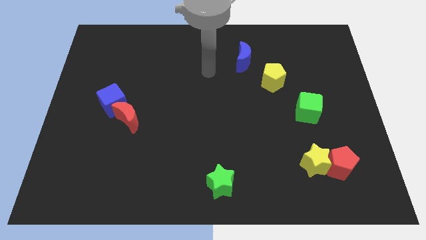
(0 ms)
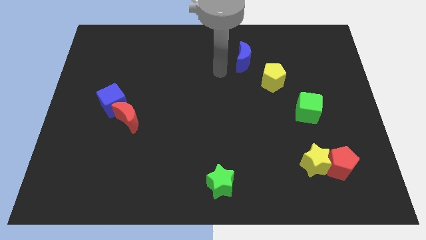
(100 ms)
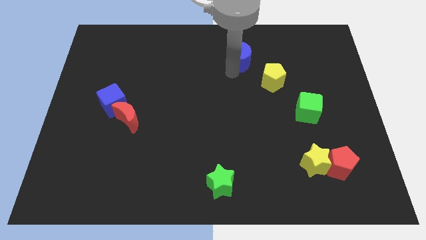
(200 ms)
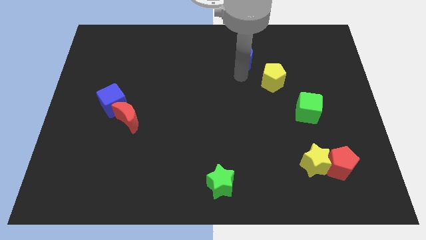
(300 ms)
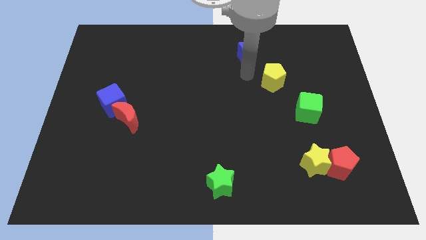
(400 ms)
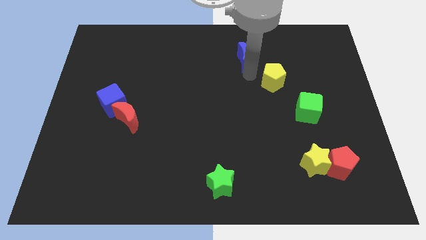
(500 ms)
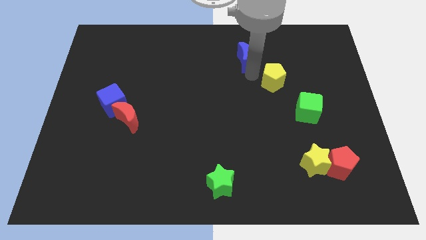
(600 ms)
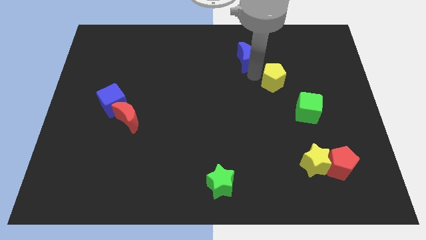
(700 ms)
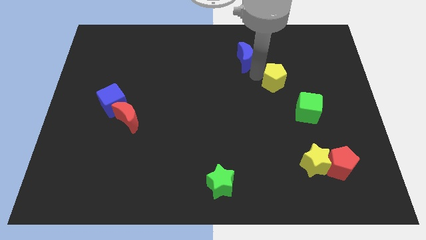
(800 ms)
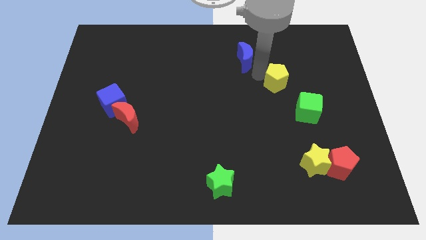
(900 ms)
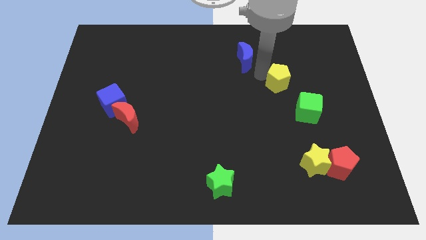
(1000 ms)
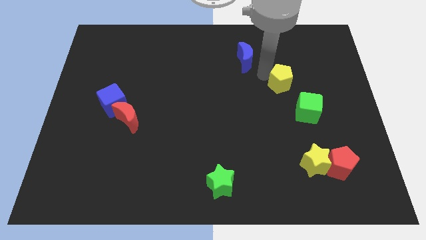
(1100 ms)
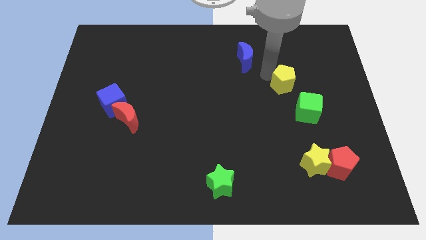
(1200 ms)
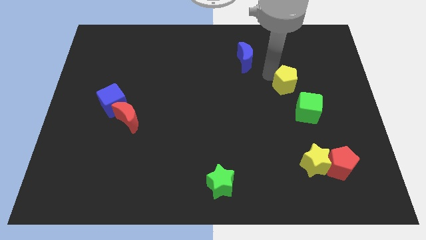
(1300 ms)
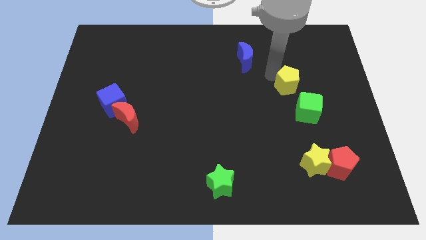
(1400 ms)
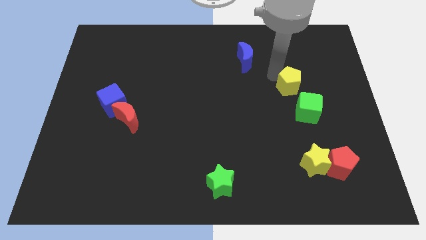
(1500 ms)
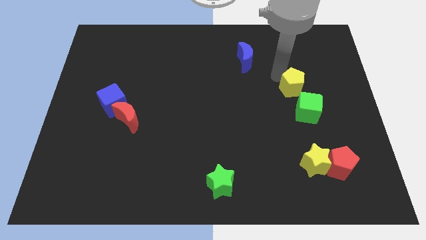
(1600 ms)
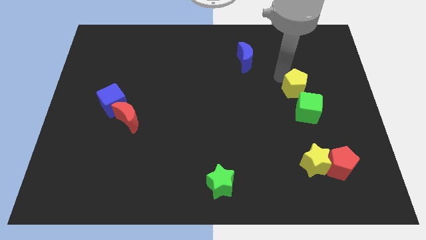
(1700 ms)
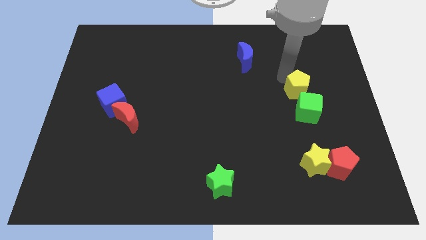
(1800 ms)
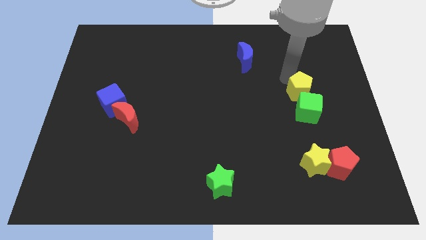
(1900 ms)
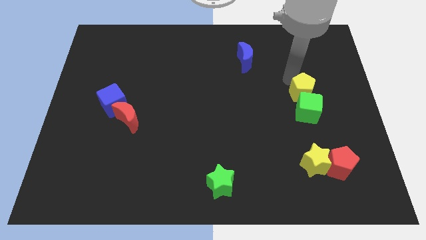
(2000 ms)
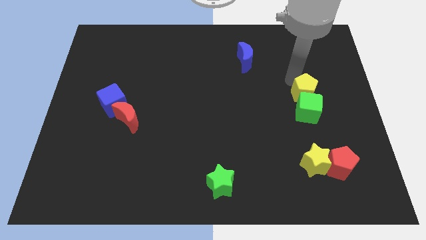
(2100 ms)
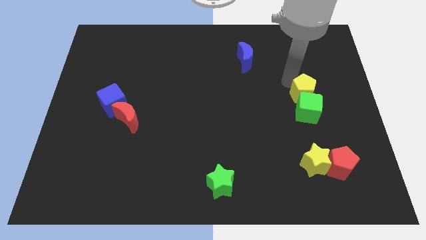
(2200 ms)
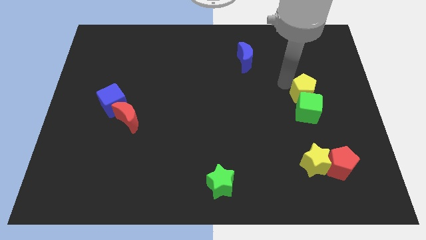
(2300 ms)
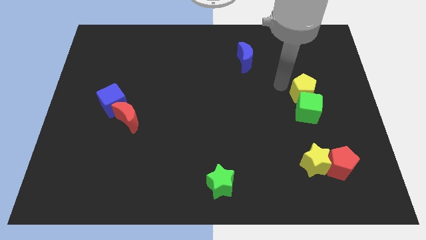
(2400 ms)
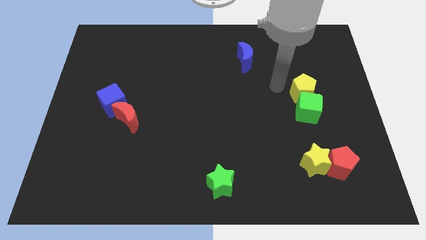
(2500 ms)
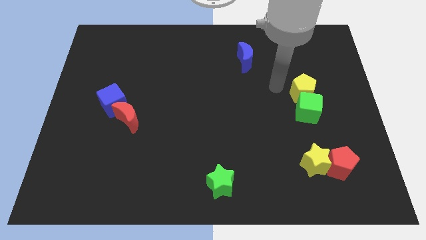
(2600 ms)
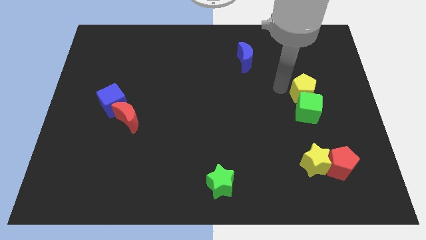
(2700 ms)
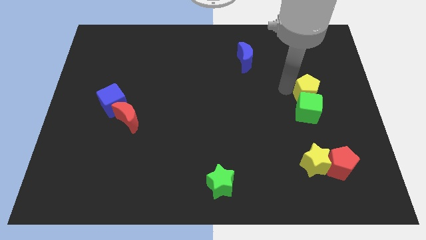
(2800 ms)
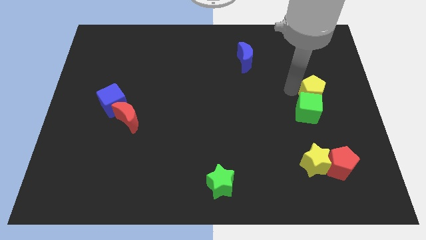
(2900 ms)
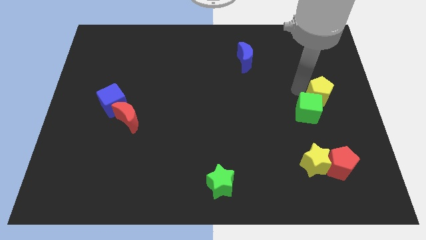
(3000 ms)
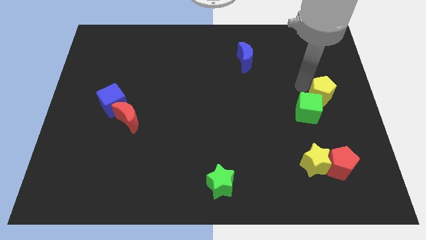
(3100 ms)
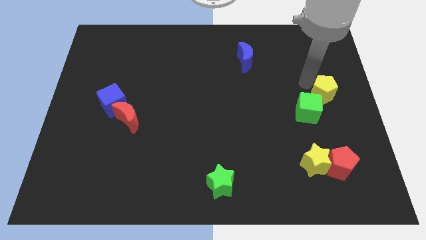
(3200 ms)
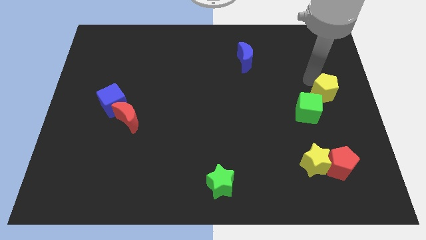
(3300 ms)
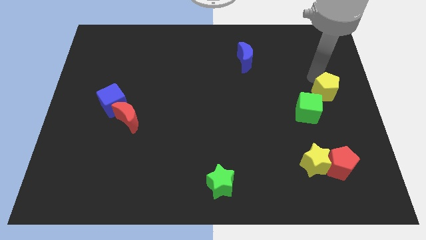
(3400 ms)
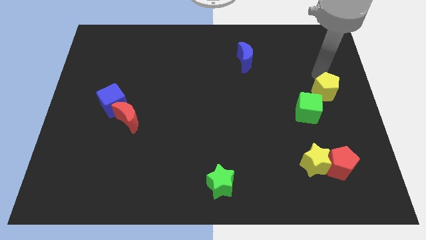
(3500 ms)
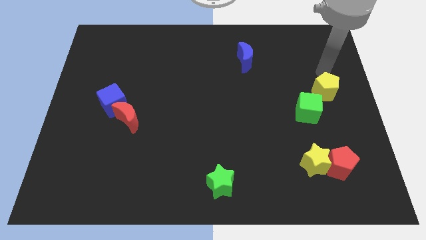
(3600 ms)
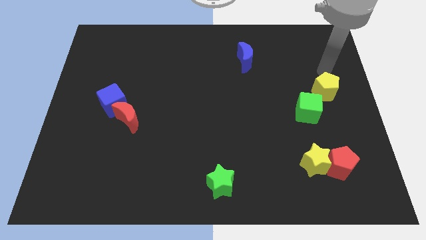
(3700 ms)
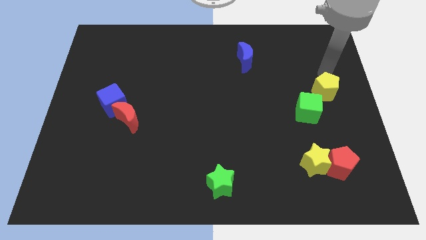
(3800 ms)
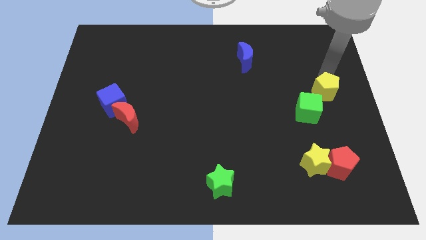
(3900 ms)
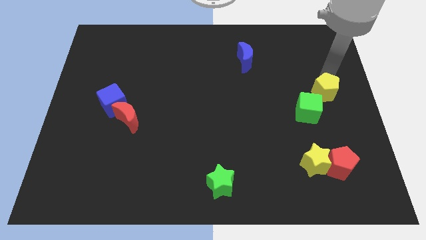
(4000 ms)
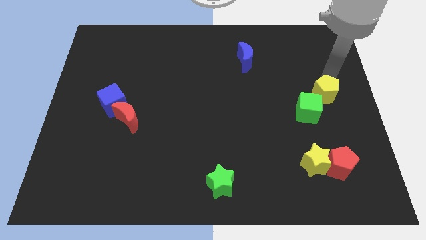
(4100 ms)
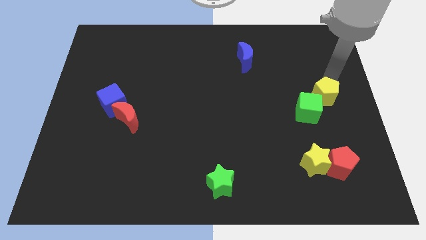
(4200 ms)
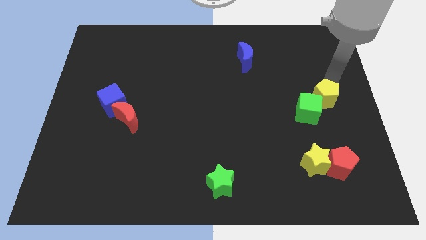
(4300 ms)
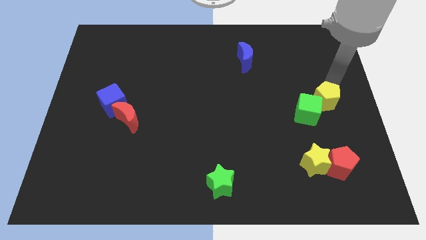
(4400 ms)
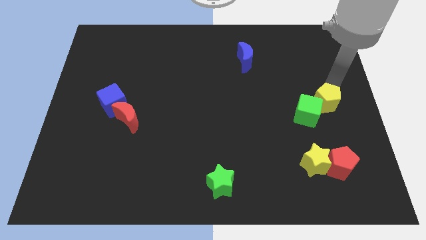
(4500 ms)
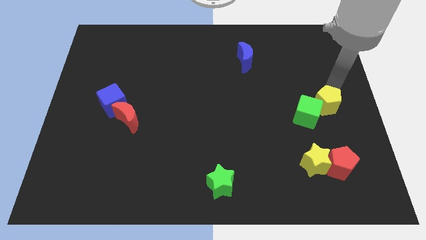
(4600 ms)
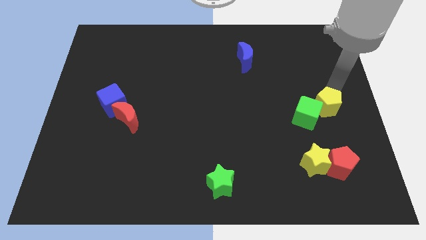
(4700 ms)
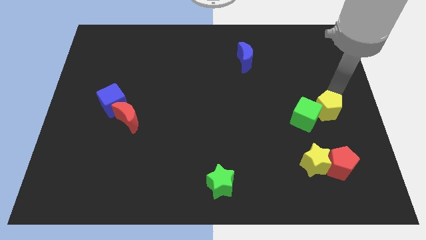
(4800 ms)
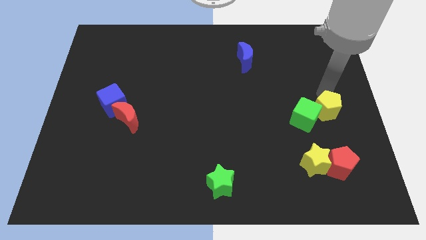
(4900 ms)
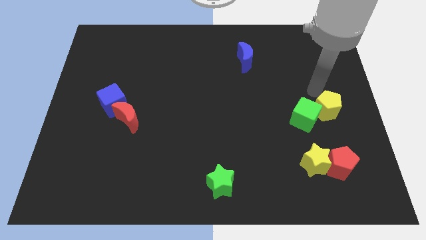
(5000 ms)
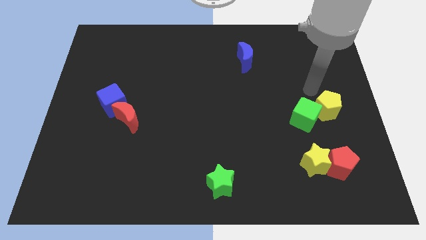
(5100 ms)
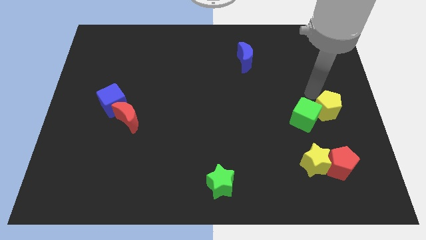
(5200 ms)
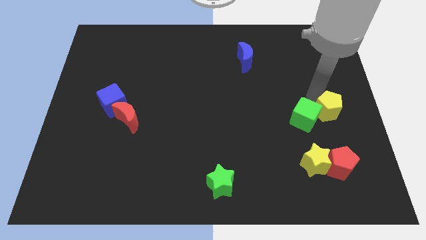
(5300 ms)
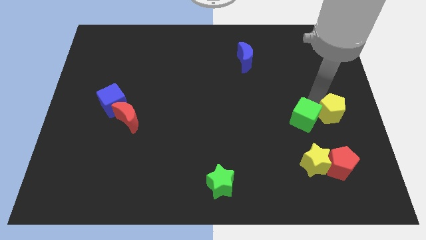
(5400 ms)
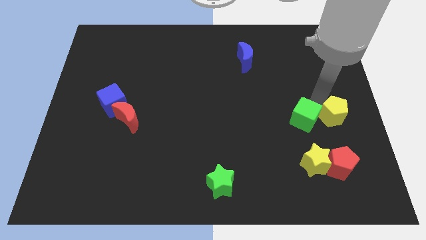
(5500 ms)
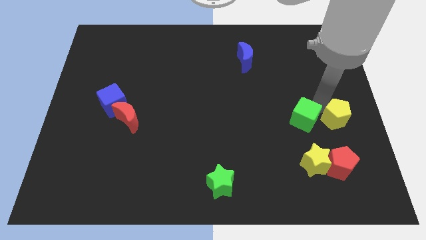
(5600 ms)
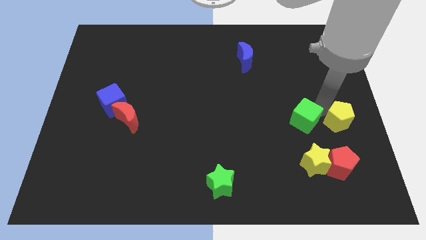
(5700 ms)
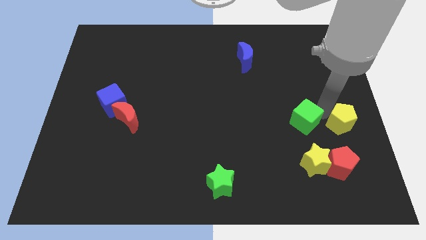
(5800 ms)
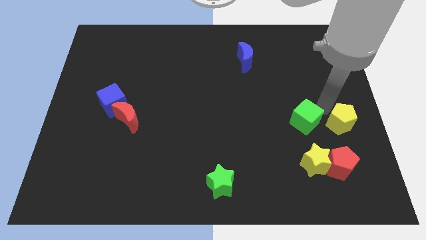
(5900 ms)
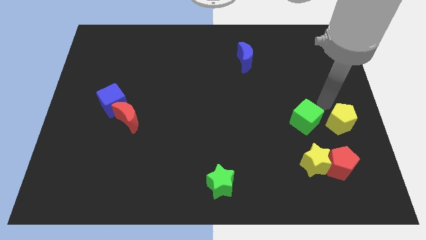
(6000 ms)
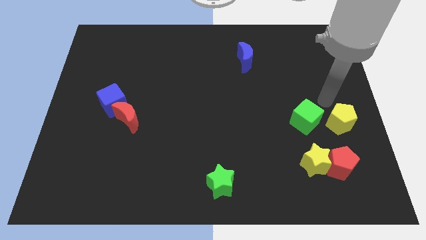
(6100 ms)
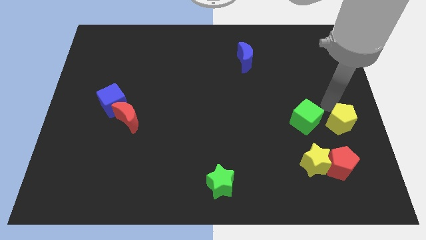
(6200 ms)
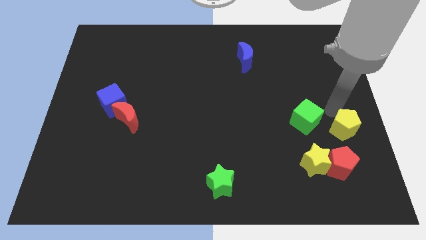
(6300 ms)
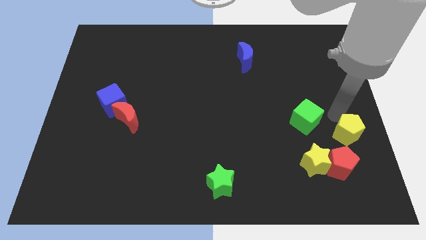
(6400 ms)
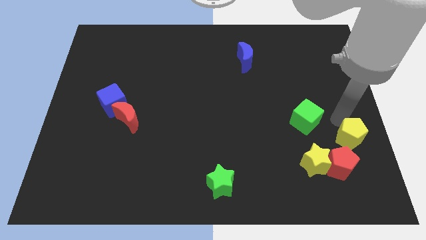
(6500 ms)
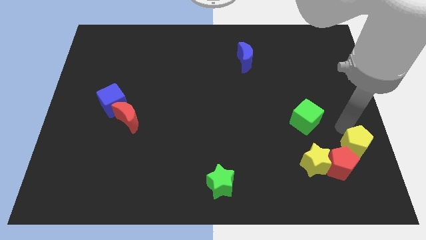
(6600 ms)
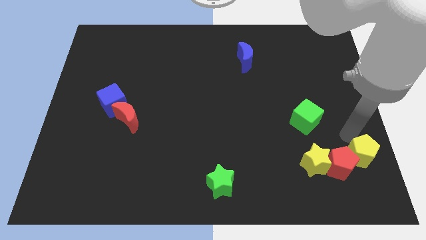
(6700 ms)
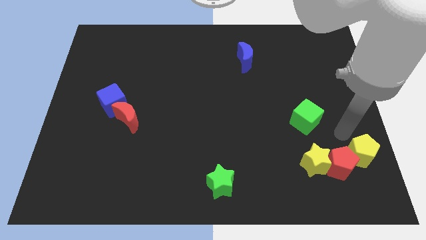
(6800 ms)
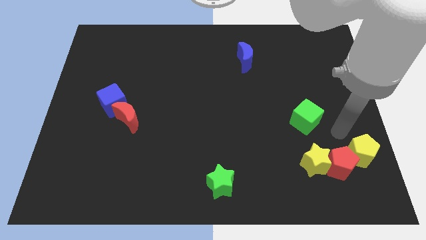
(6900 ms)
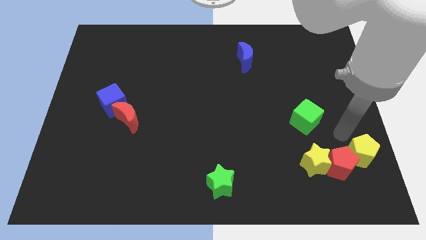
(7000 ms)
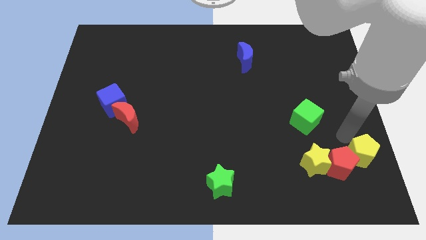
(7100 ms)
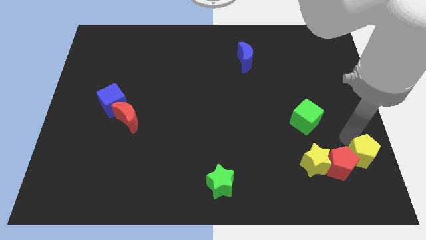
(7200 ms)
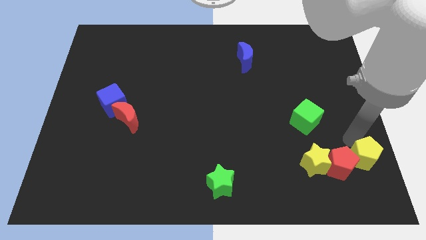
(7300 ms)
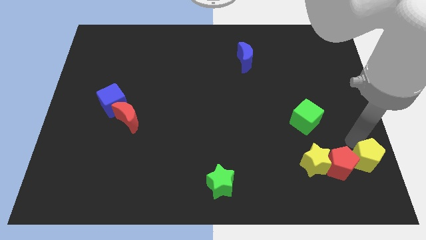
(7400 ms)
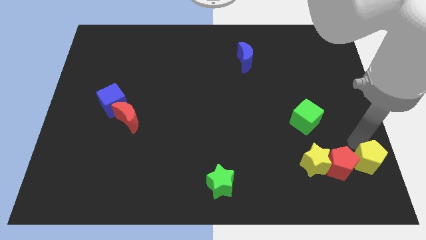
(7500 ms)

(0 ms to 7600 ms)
slide the yellow pentagon to the lower right corner

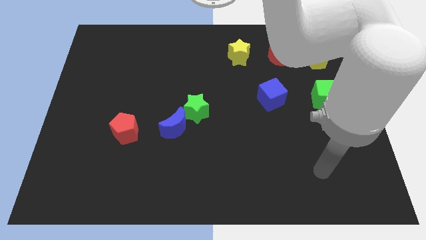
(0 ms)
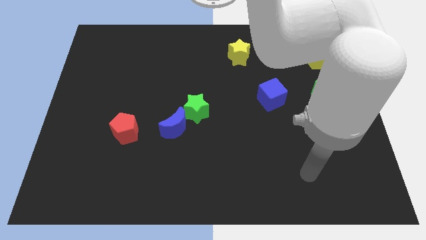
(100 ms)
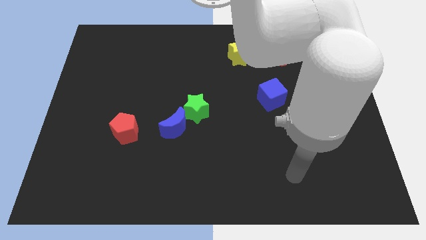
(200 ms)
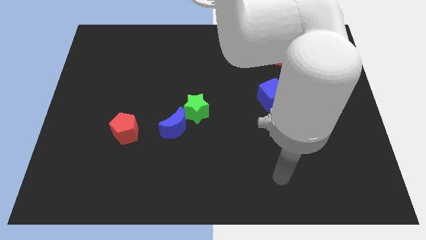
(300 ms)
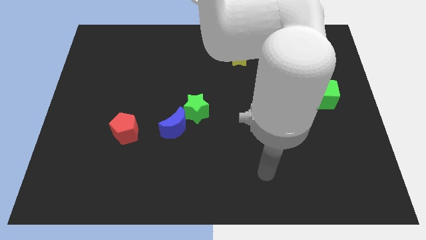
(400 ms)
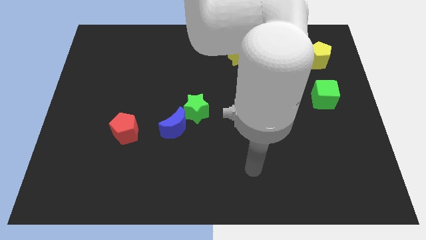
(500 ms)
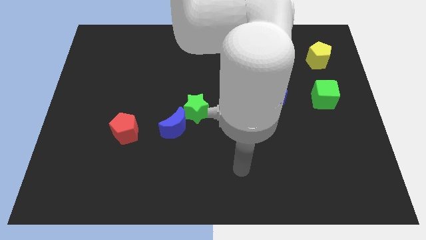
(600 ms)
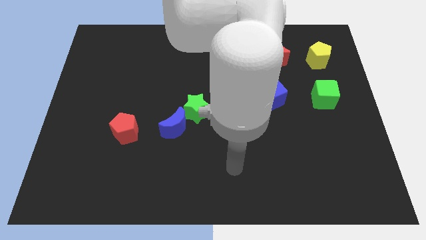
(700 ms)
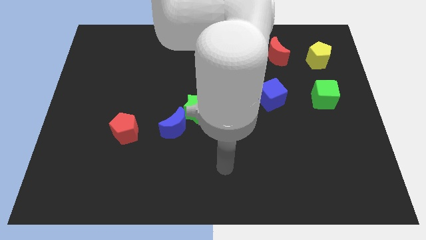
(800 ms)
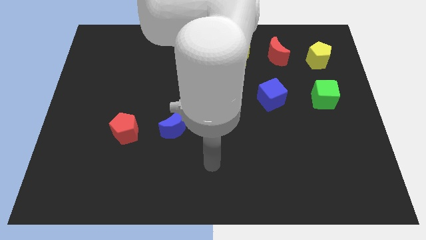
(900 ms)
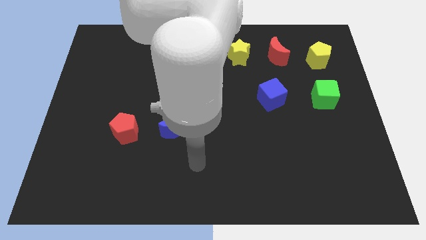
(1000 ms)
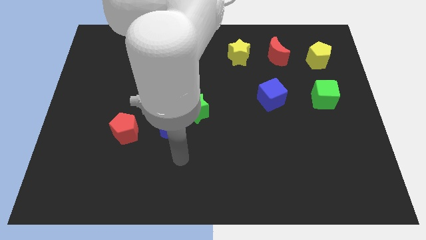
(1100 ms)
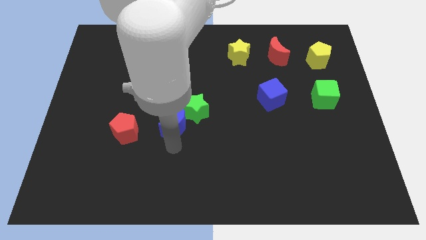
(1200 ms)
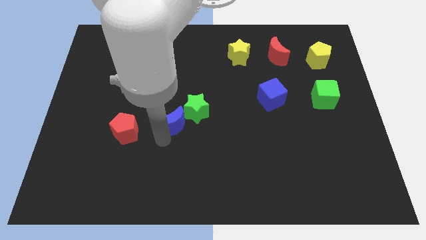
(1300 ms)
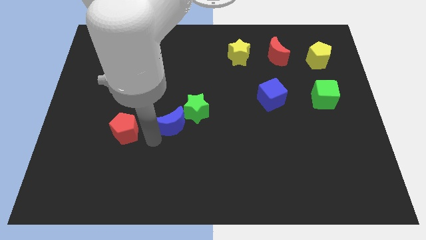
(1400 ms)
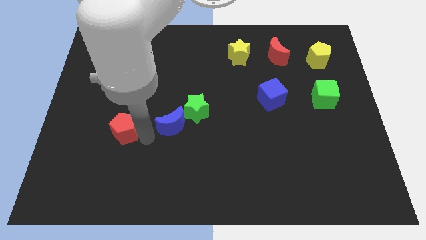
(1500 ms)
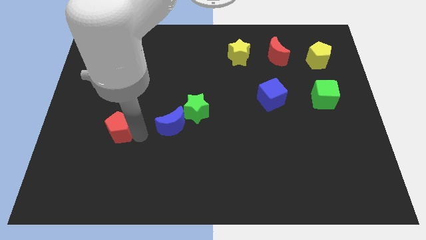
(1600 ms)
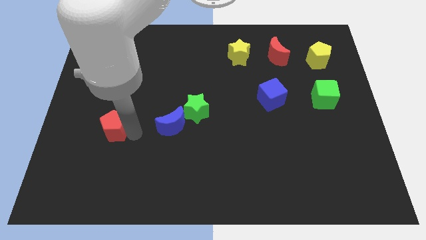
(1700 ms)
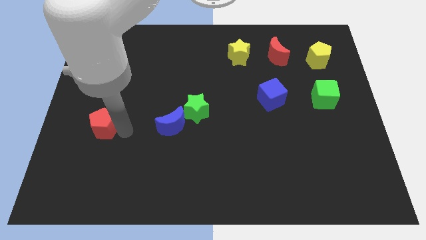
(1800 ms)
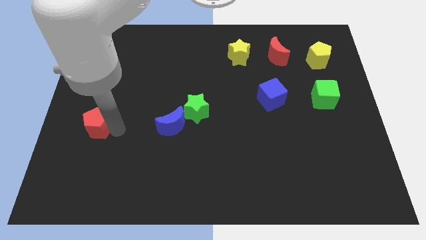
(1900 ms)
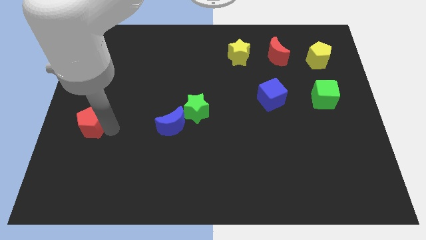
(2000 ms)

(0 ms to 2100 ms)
put the red pentagon to the center left
